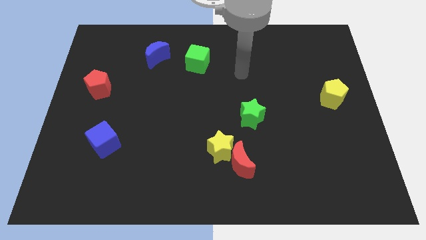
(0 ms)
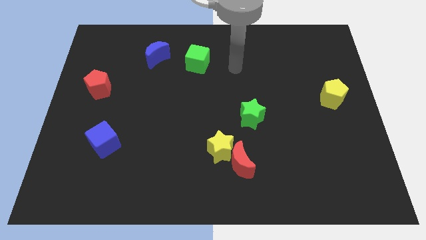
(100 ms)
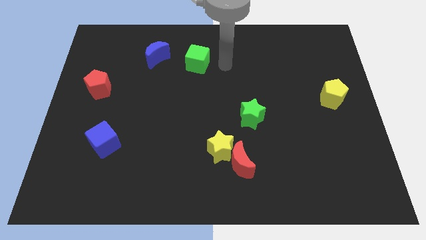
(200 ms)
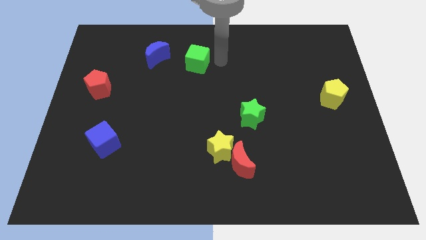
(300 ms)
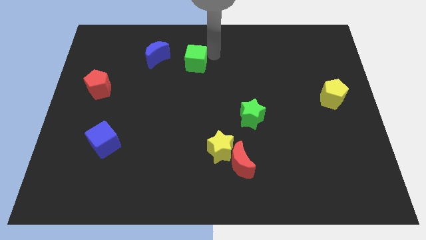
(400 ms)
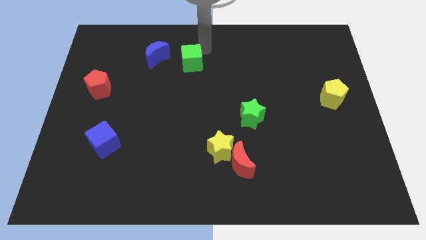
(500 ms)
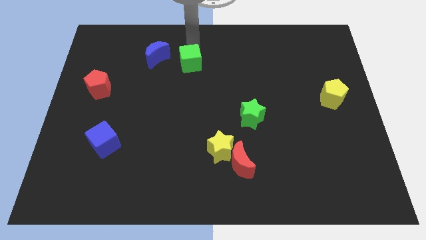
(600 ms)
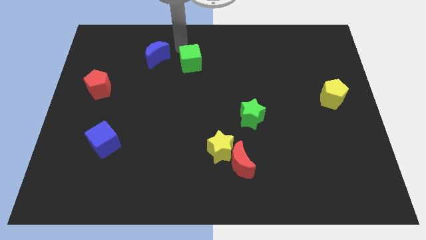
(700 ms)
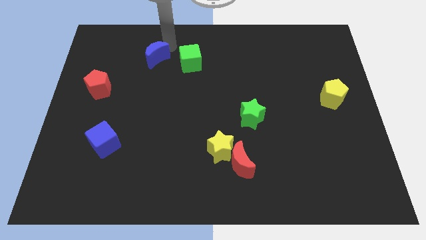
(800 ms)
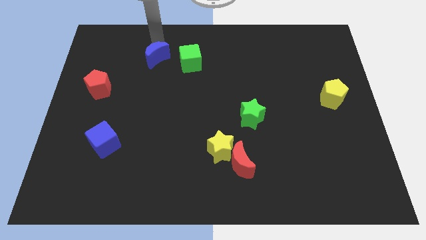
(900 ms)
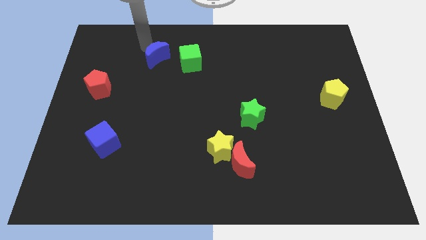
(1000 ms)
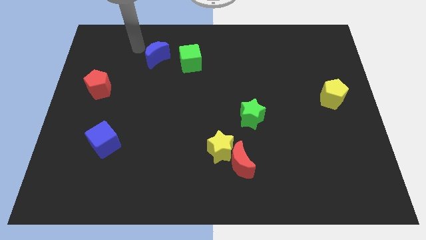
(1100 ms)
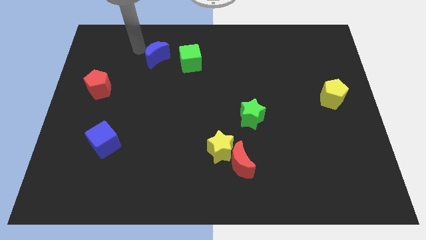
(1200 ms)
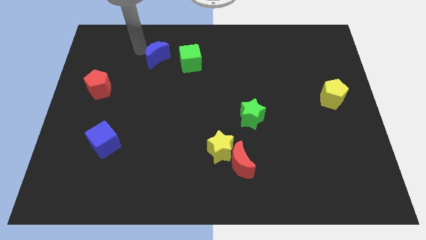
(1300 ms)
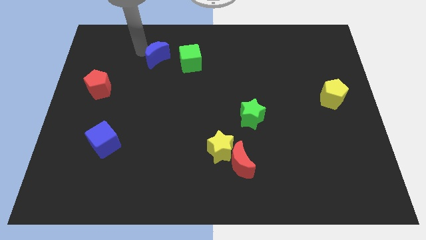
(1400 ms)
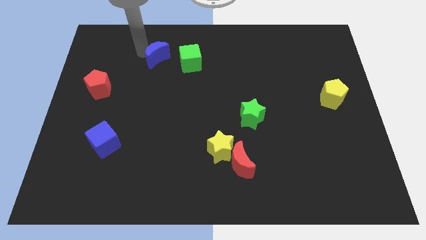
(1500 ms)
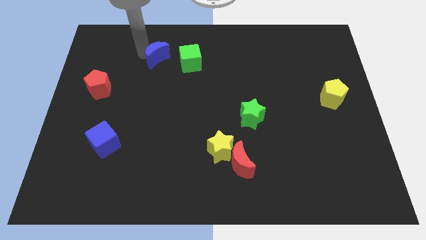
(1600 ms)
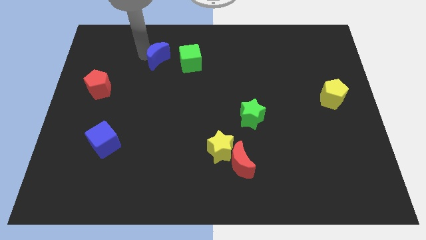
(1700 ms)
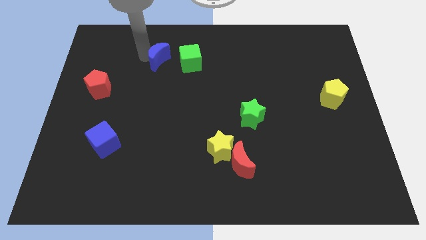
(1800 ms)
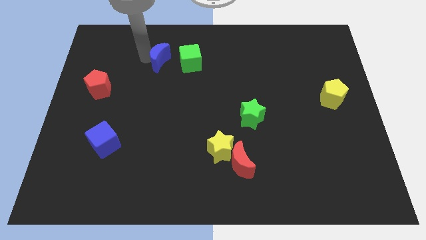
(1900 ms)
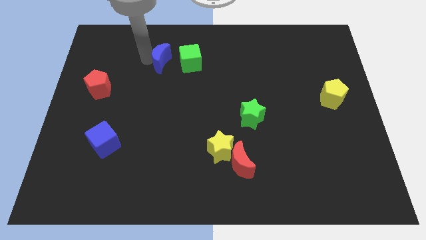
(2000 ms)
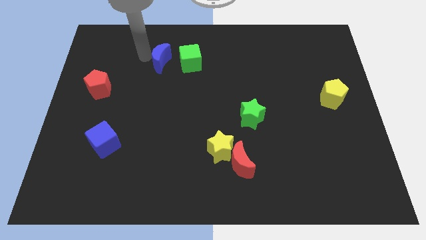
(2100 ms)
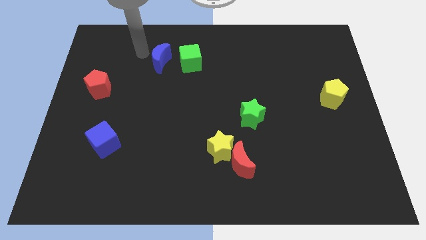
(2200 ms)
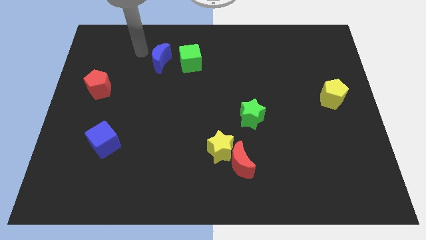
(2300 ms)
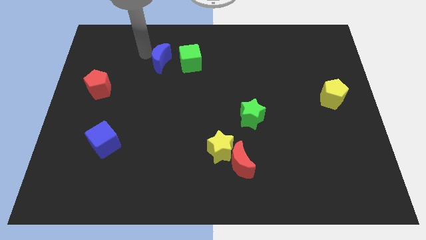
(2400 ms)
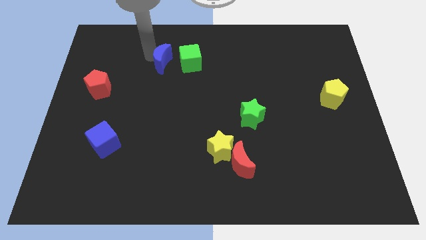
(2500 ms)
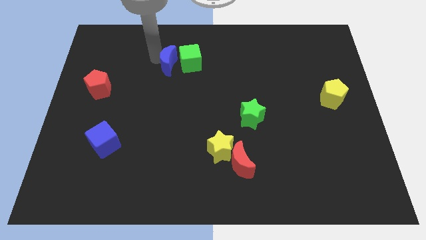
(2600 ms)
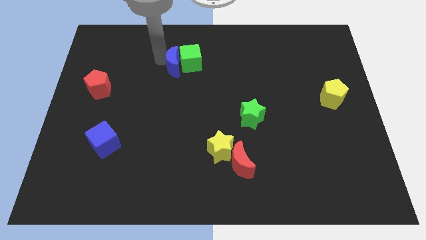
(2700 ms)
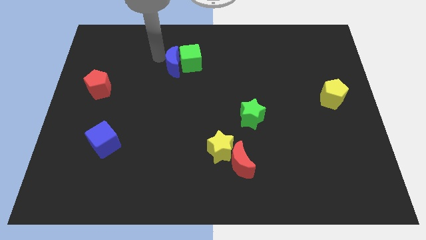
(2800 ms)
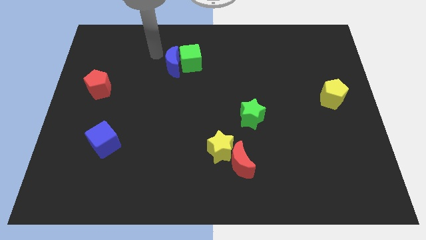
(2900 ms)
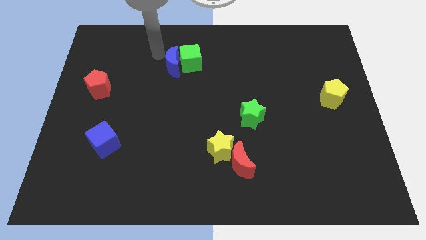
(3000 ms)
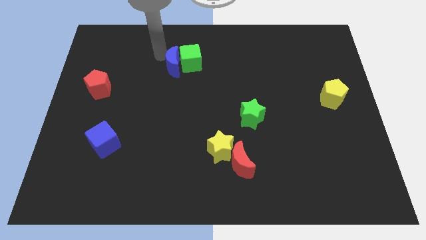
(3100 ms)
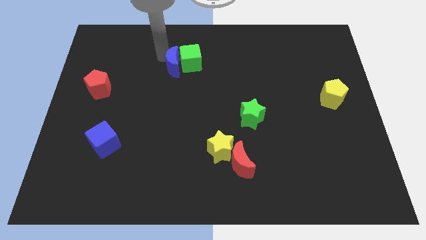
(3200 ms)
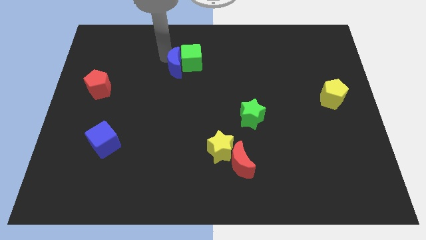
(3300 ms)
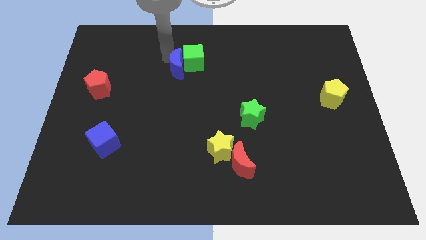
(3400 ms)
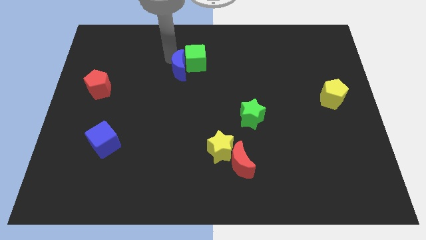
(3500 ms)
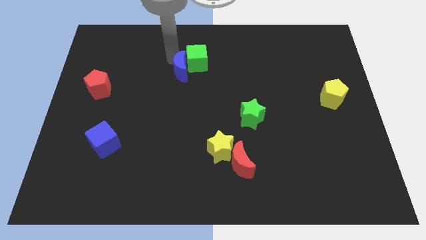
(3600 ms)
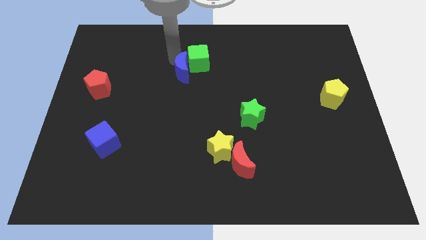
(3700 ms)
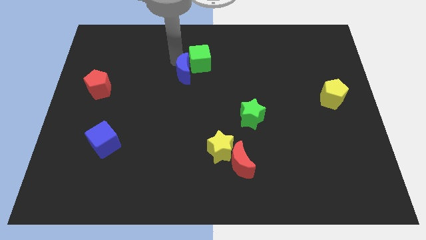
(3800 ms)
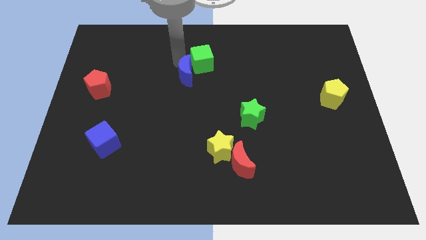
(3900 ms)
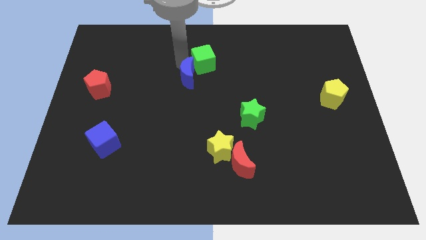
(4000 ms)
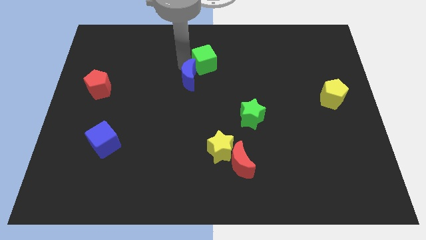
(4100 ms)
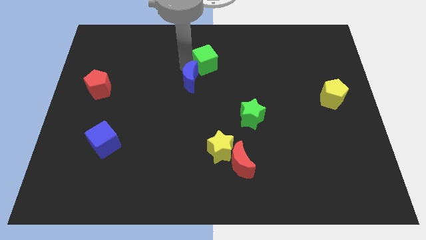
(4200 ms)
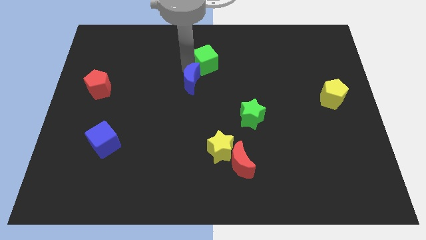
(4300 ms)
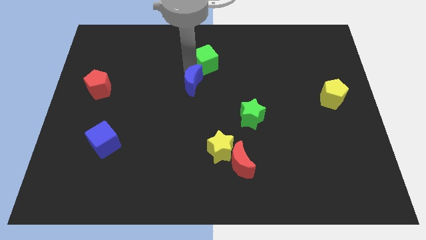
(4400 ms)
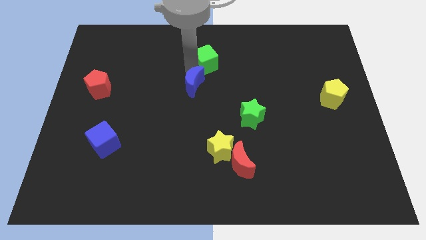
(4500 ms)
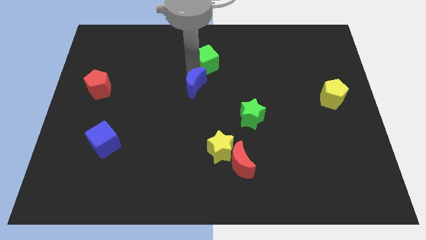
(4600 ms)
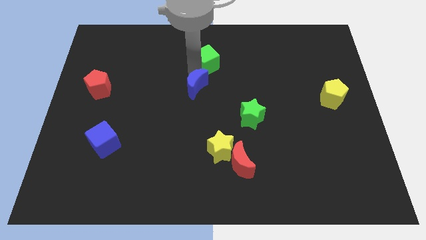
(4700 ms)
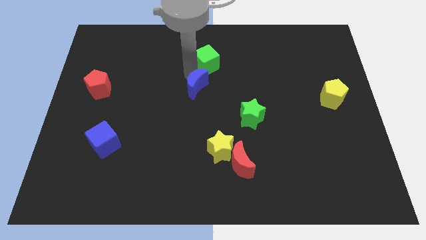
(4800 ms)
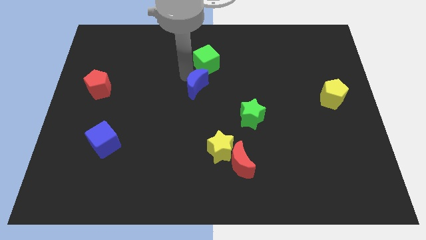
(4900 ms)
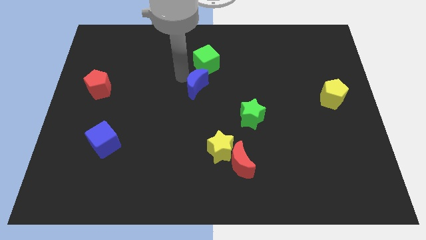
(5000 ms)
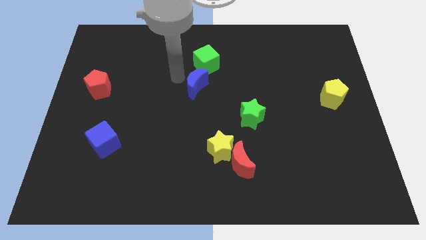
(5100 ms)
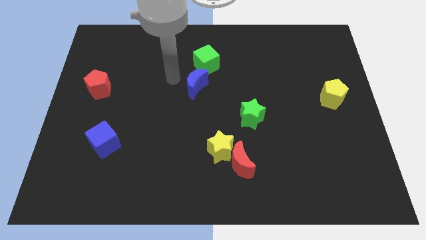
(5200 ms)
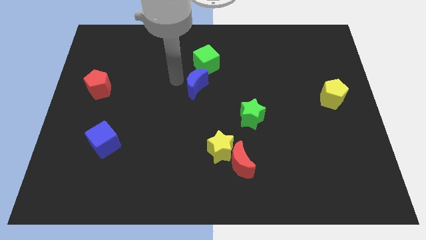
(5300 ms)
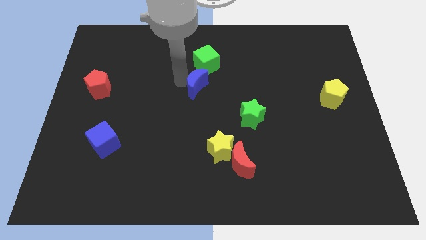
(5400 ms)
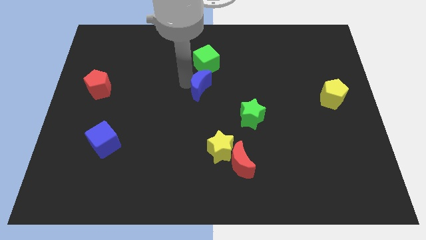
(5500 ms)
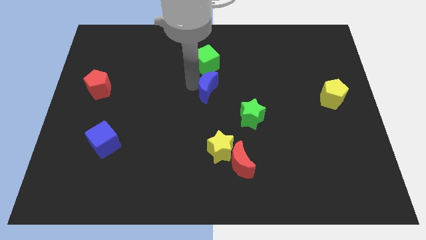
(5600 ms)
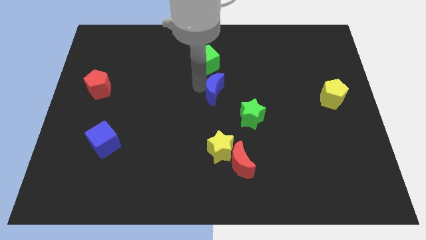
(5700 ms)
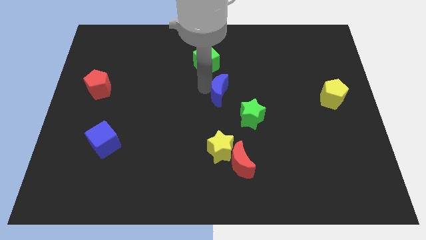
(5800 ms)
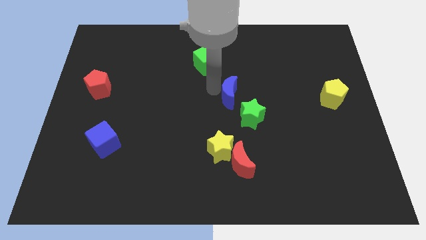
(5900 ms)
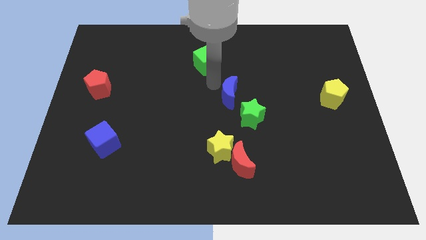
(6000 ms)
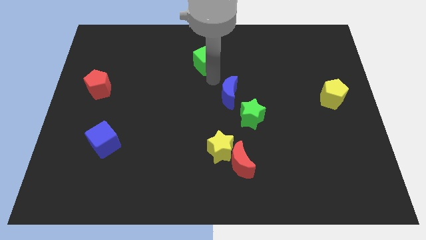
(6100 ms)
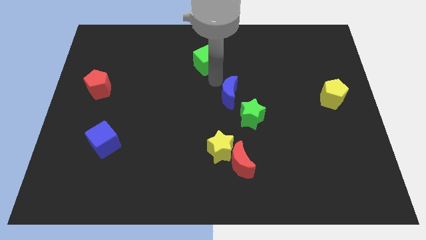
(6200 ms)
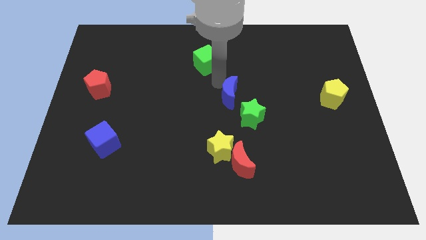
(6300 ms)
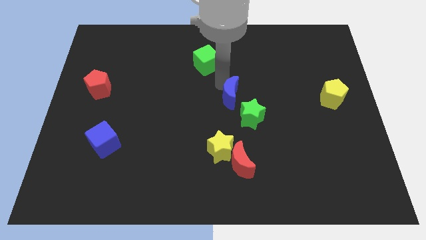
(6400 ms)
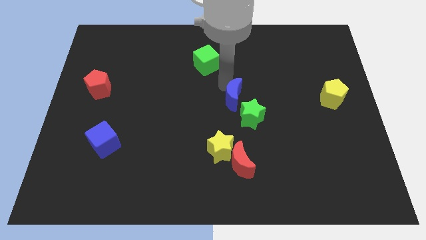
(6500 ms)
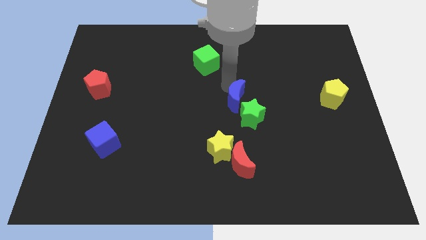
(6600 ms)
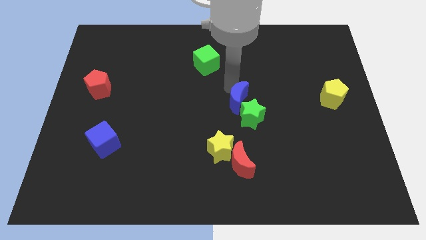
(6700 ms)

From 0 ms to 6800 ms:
move the blue moon next to the green star
